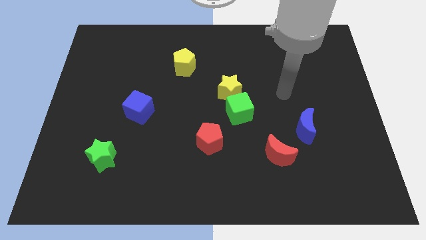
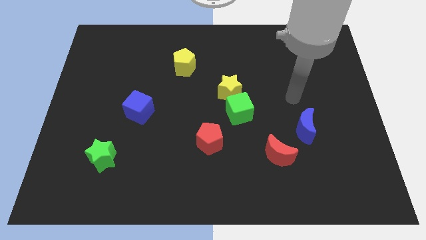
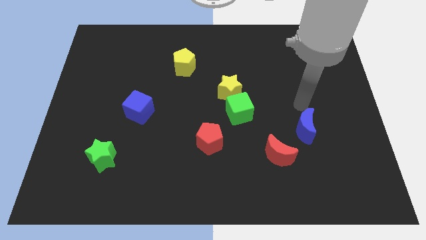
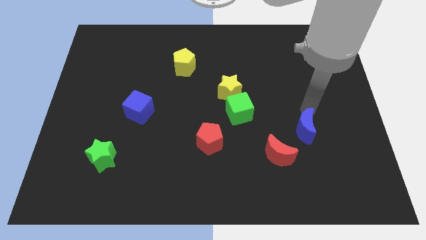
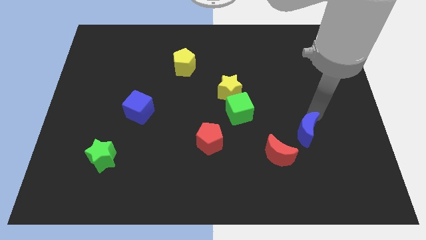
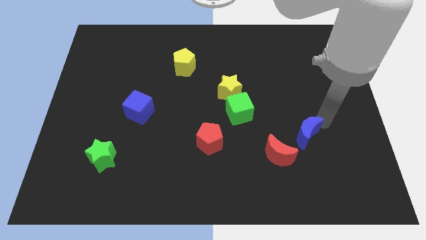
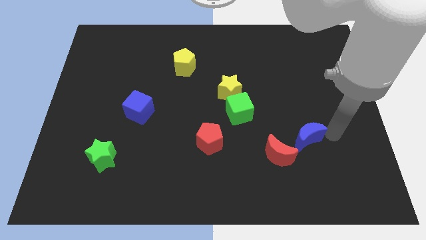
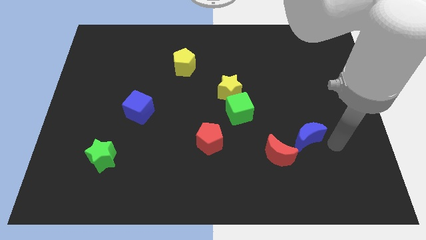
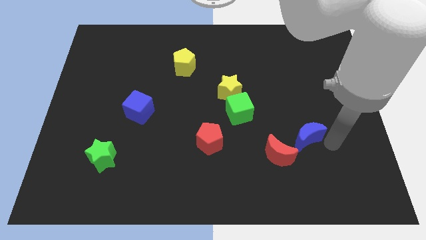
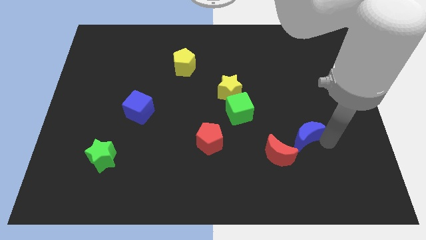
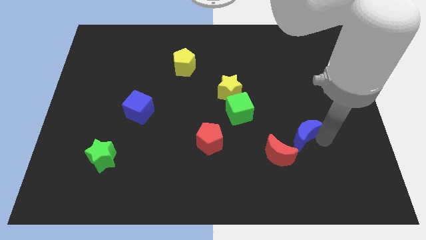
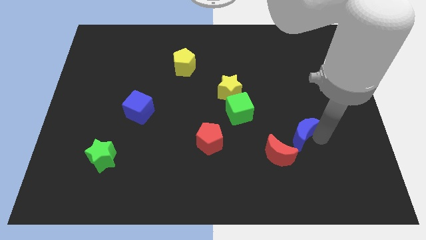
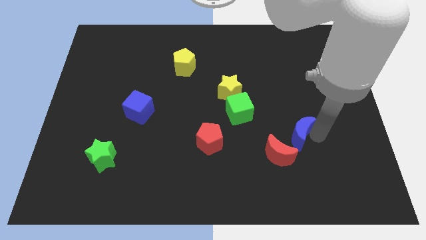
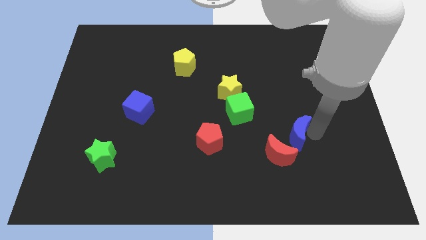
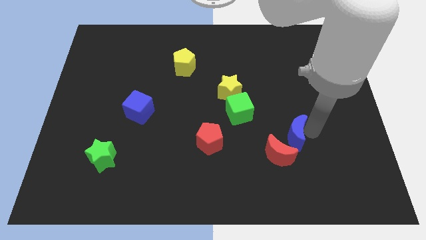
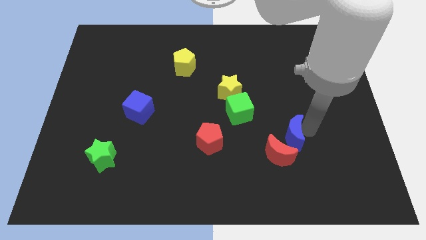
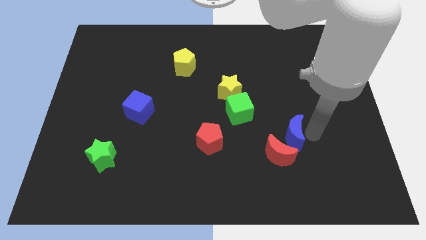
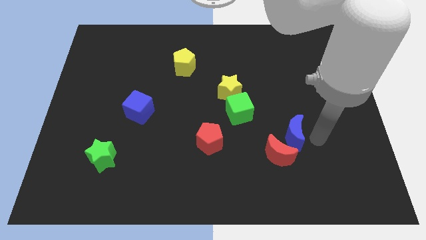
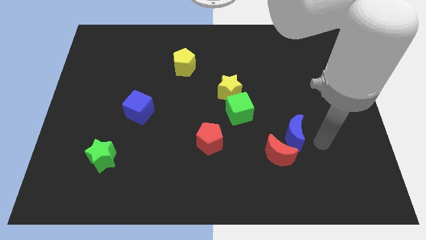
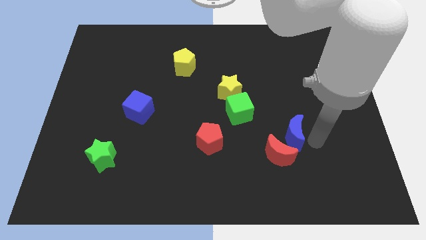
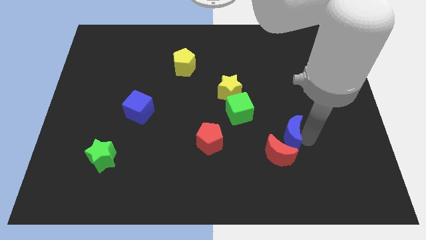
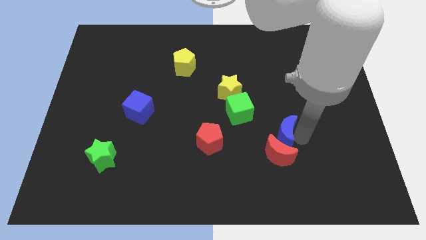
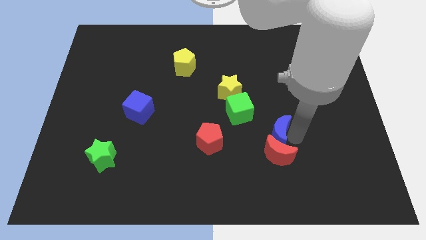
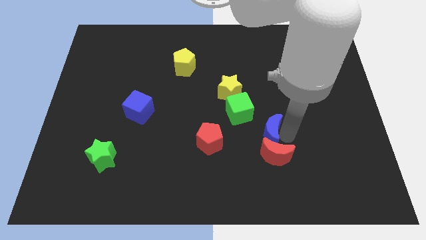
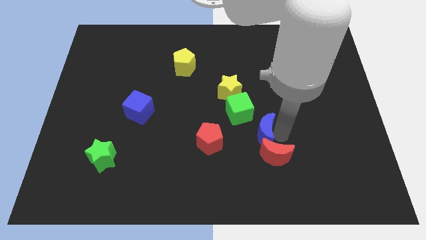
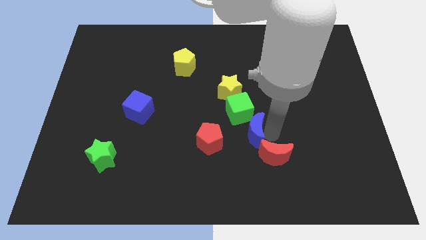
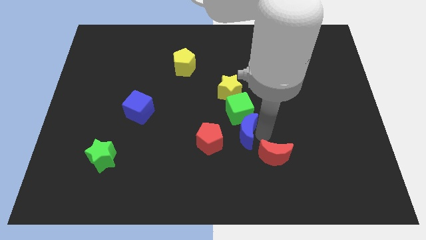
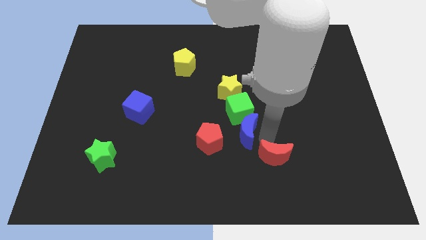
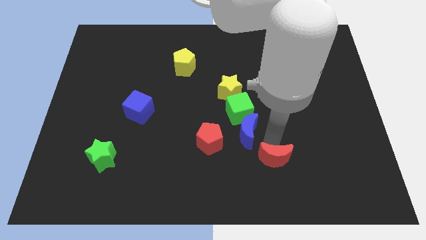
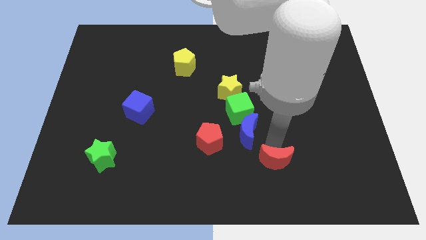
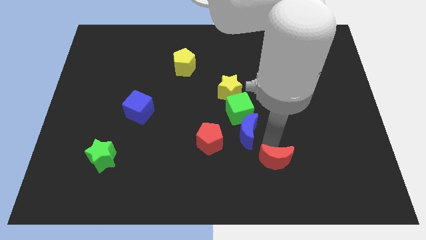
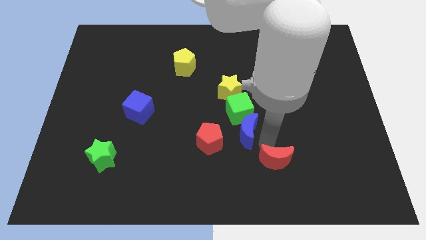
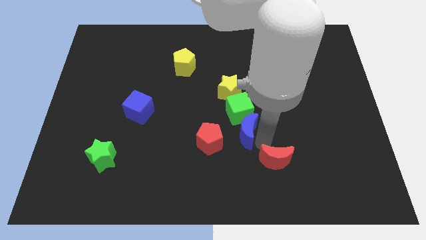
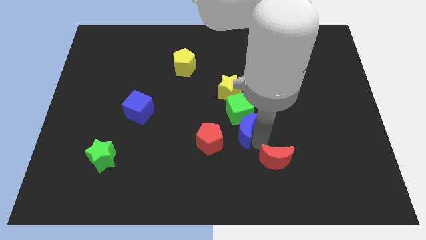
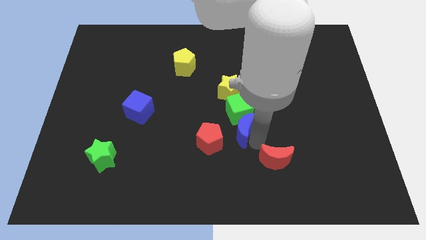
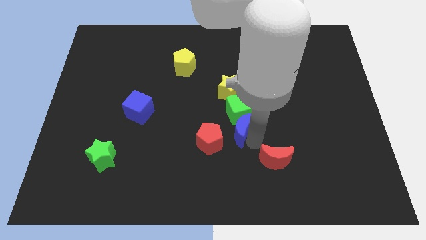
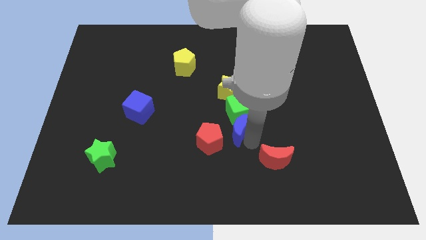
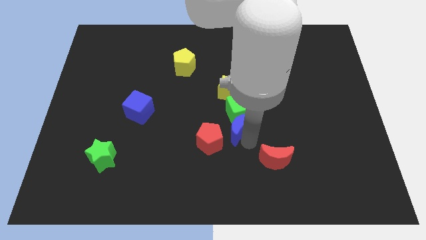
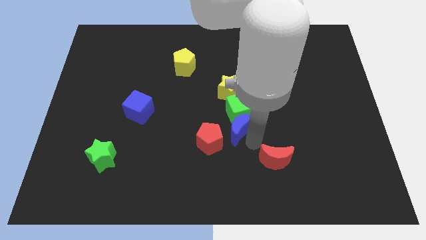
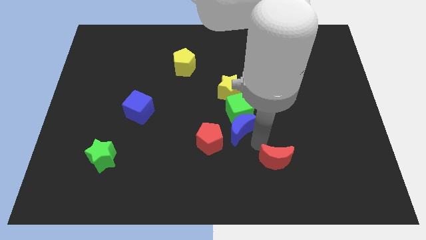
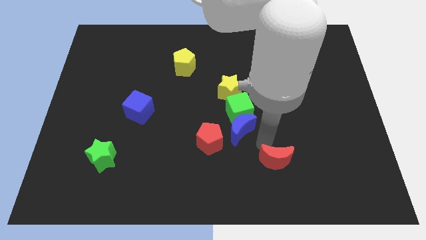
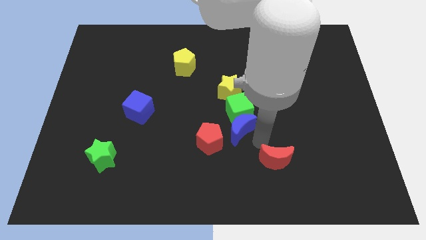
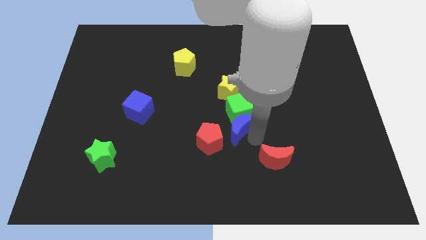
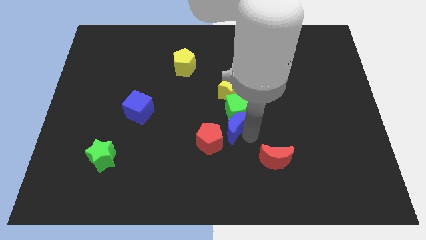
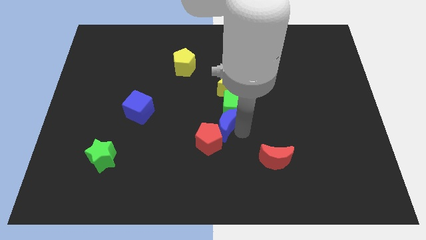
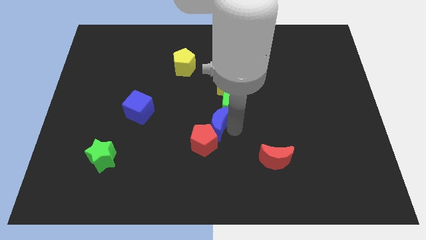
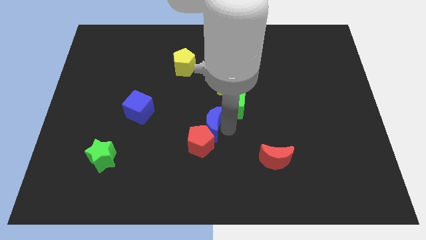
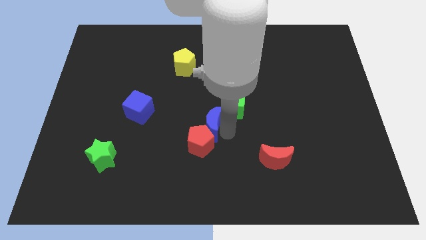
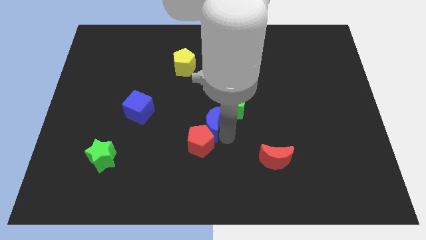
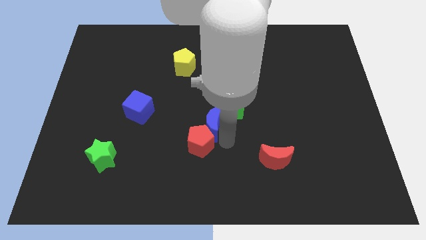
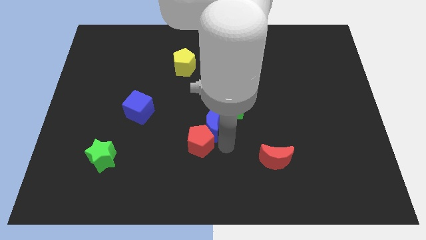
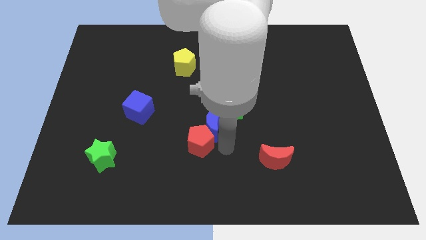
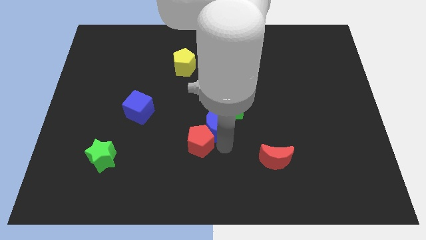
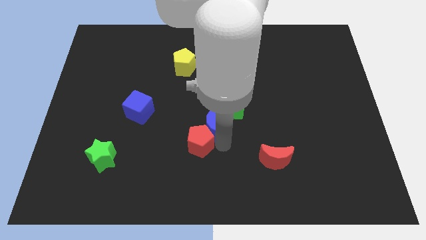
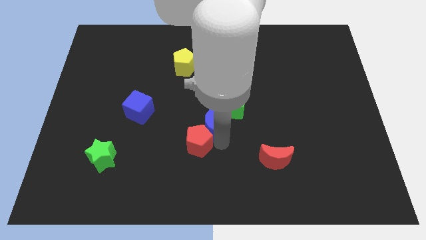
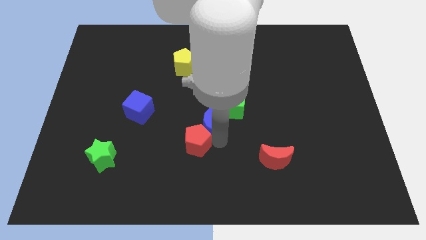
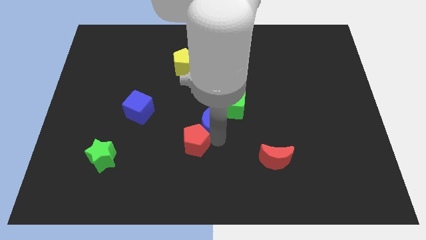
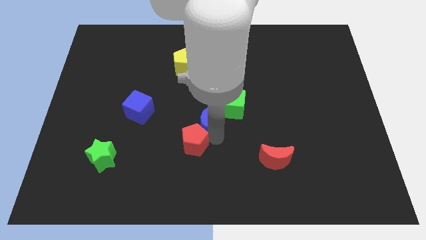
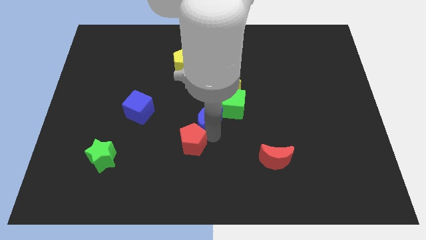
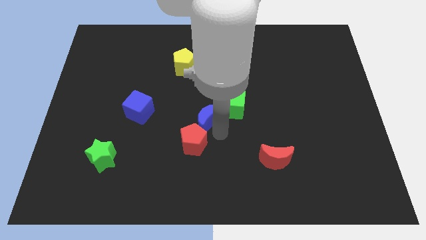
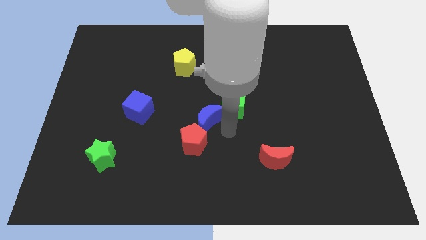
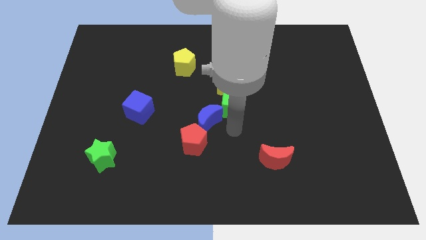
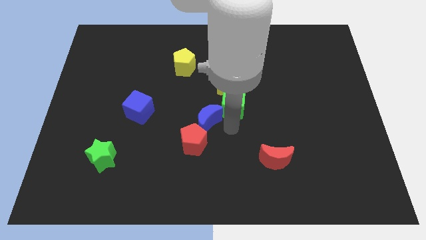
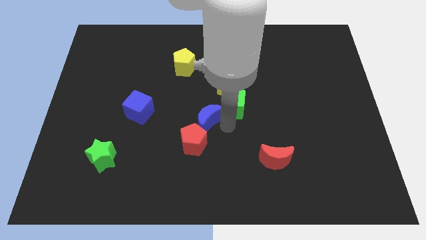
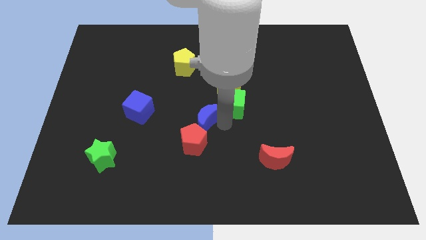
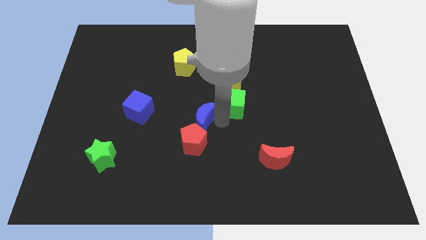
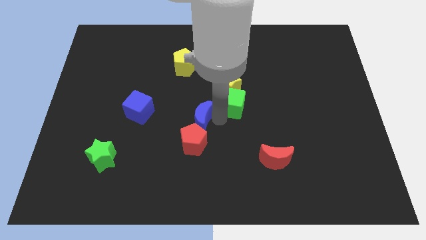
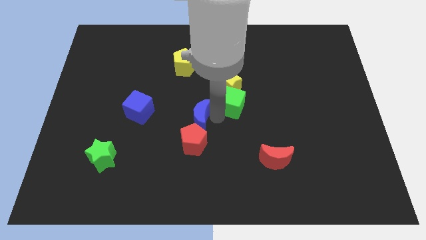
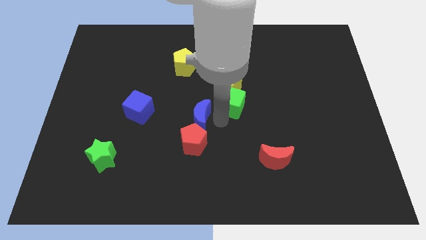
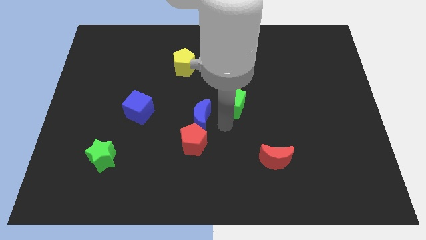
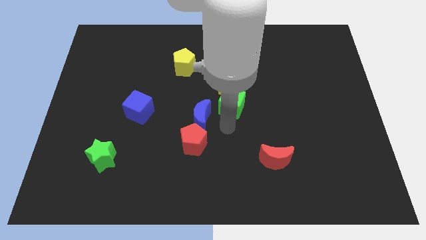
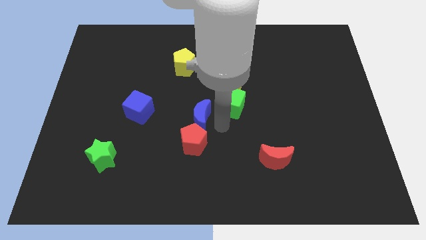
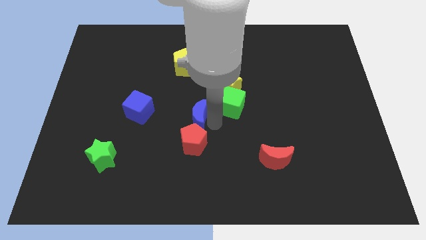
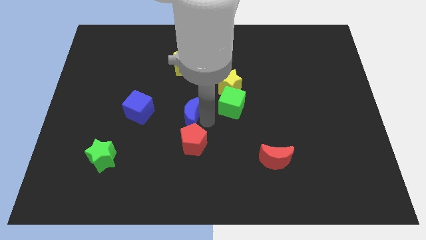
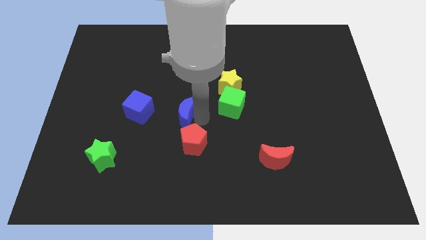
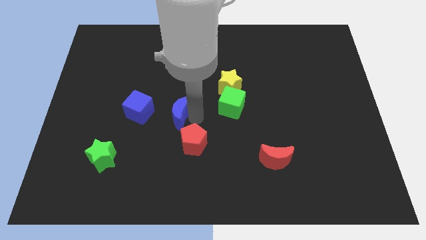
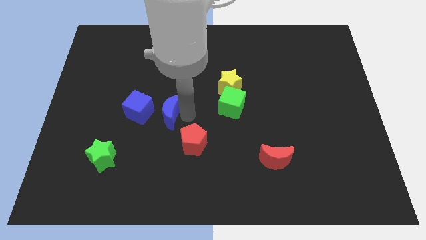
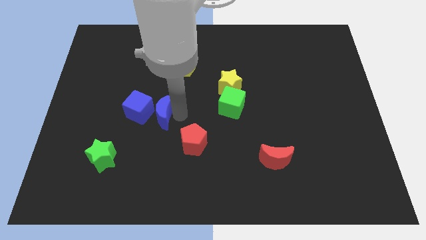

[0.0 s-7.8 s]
put the blue moon to the blue cube
